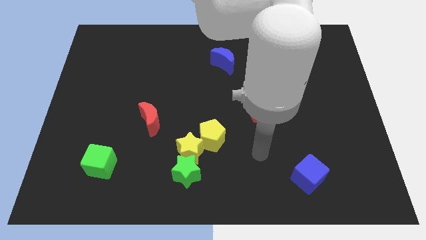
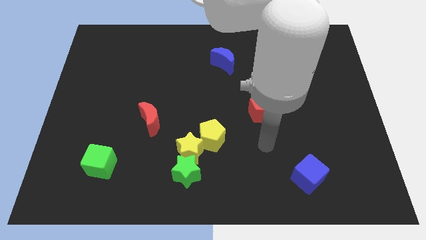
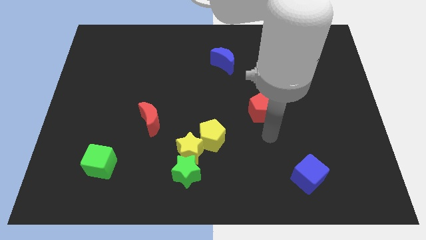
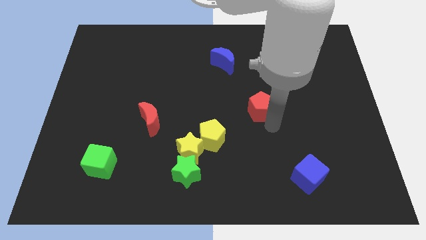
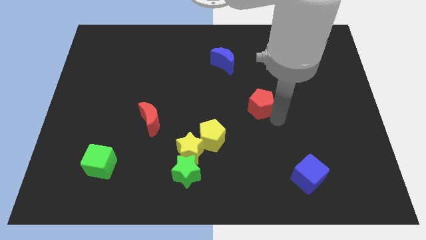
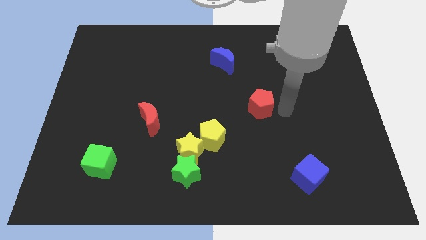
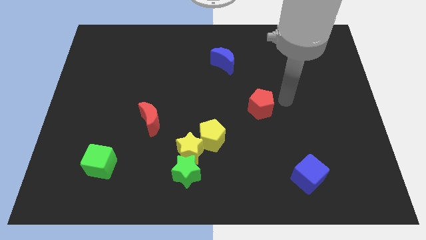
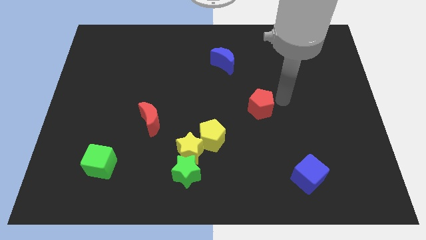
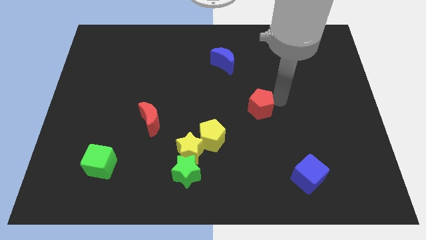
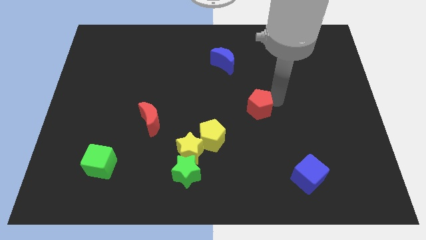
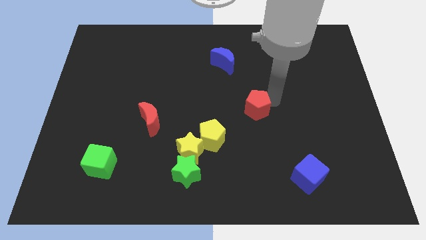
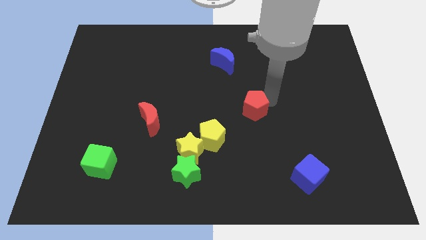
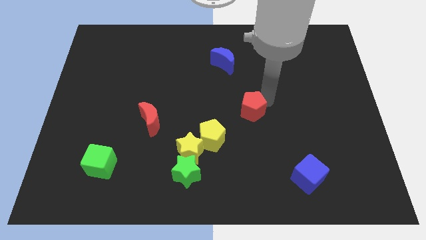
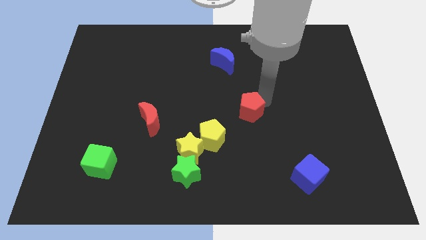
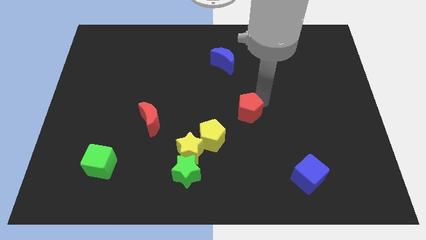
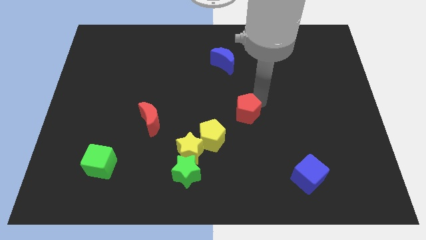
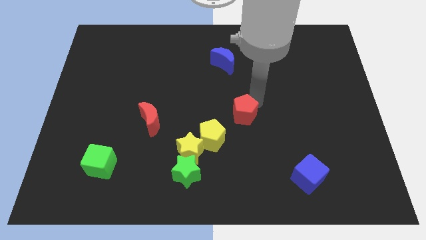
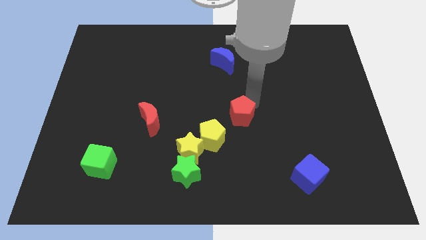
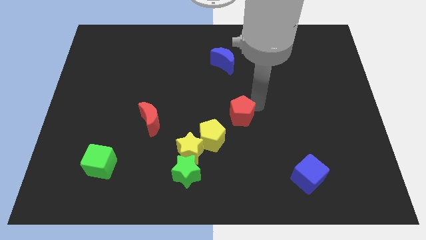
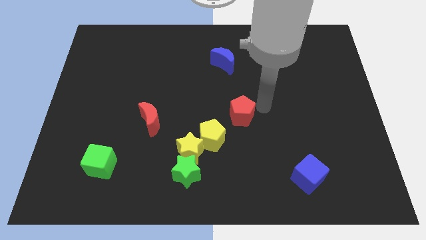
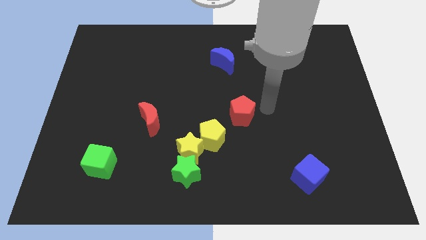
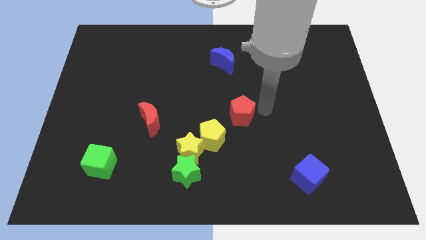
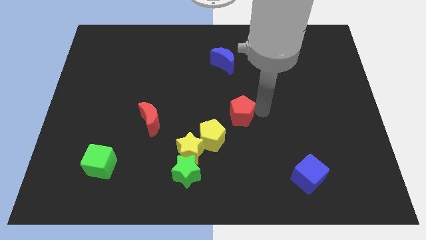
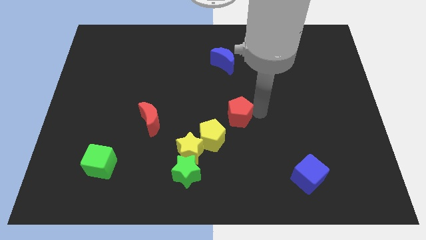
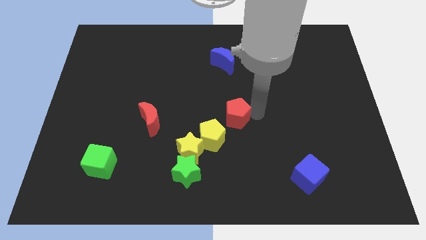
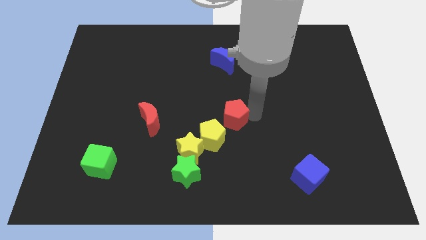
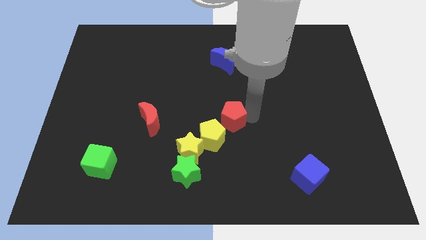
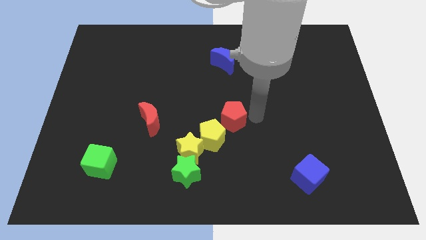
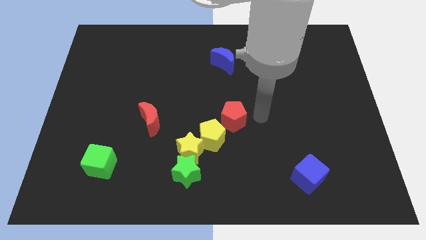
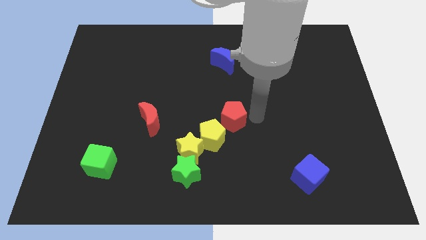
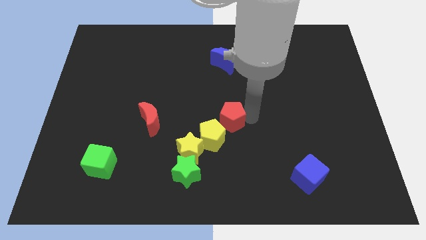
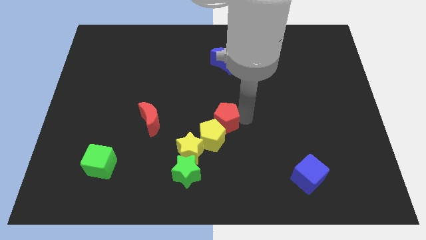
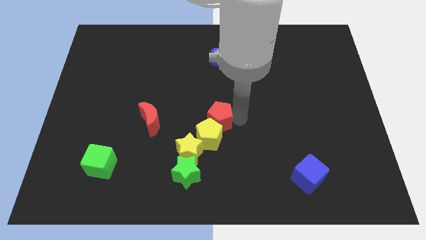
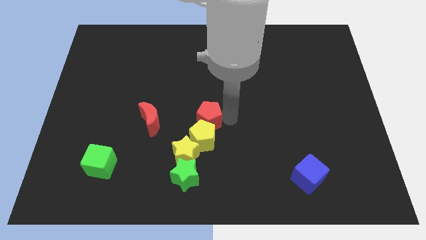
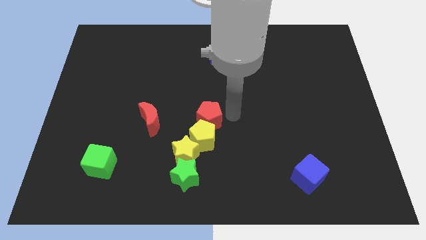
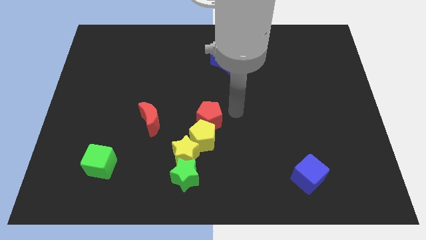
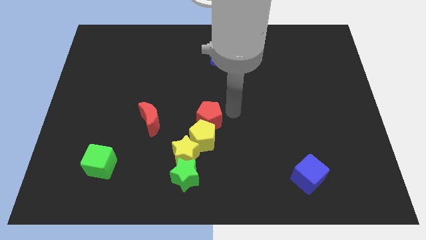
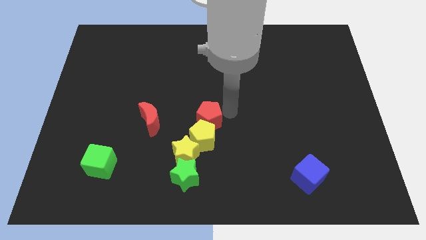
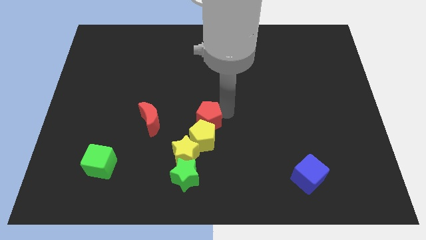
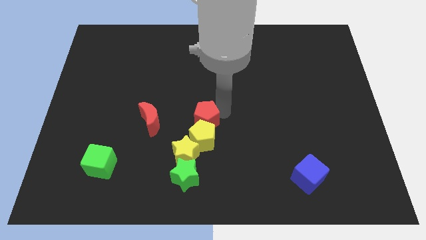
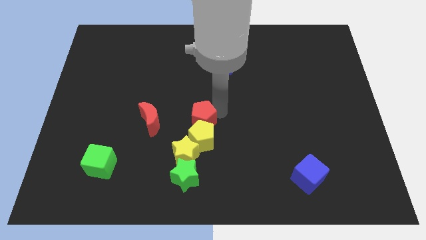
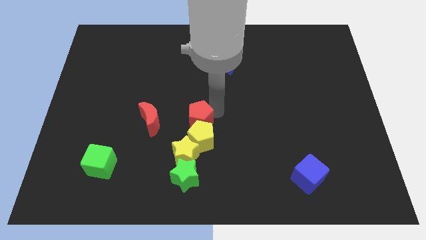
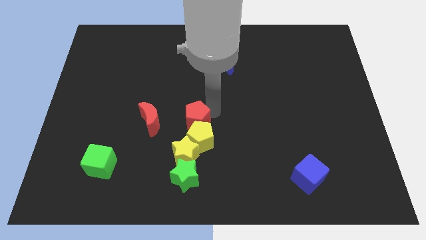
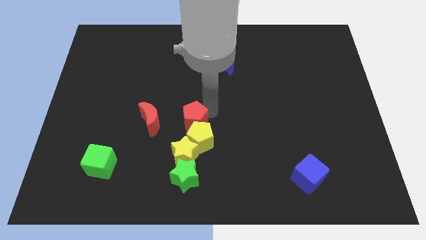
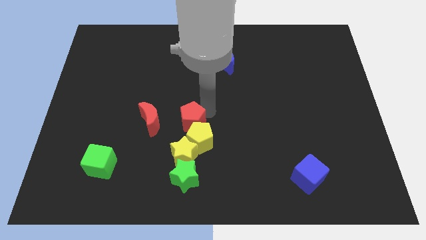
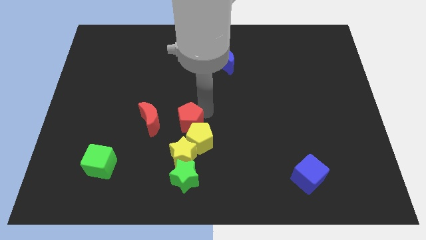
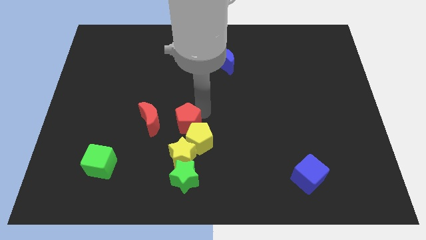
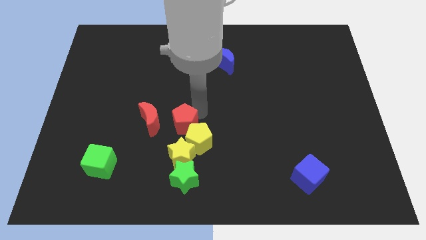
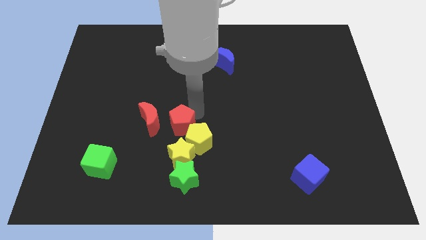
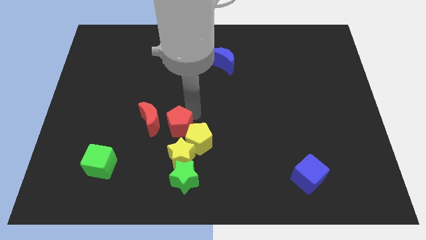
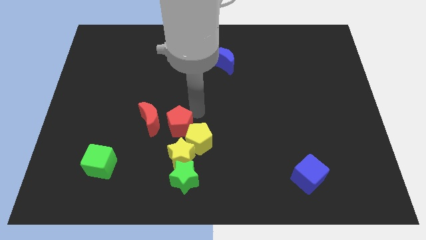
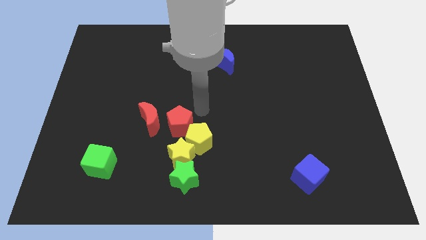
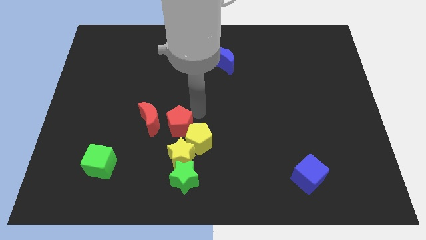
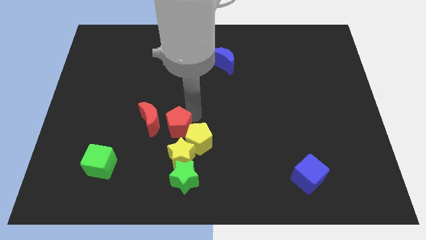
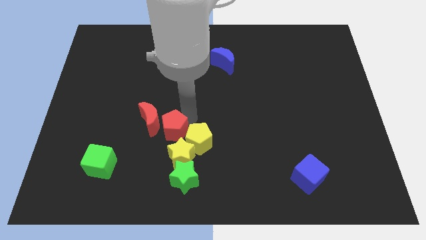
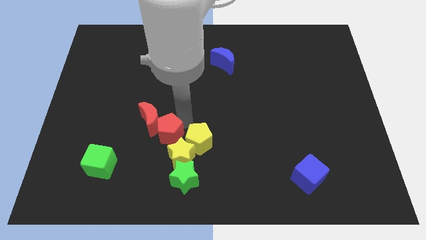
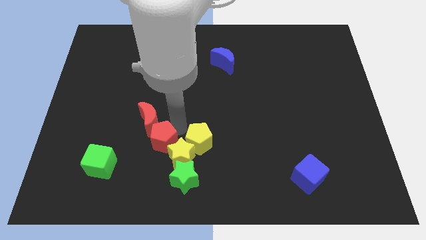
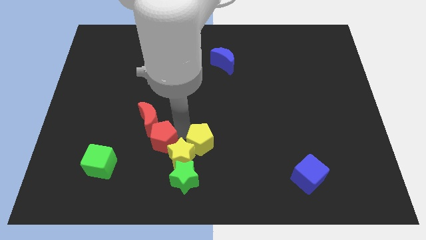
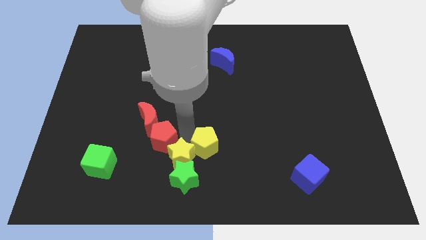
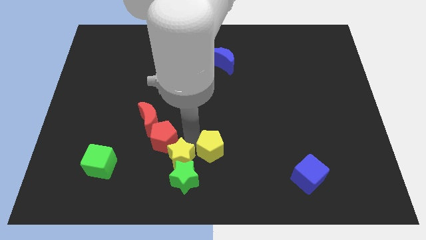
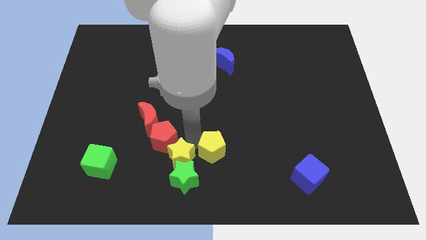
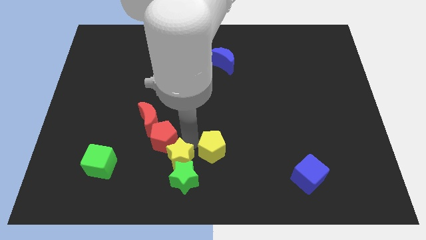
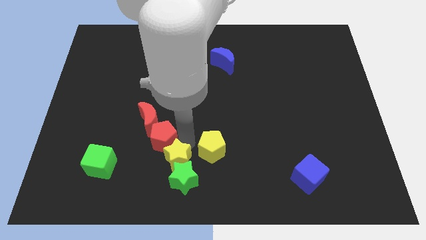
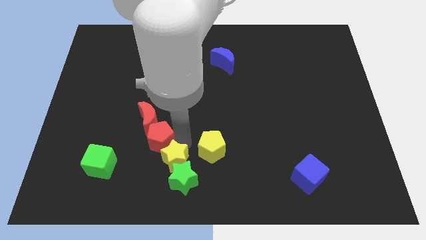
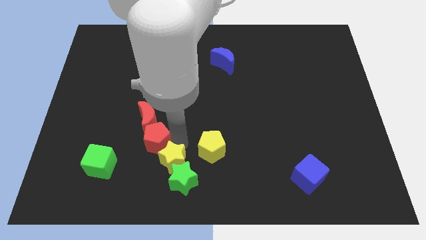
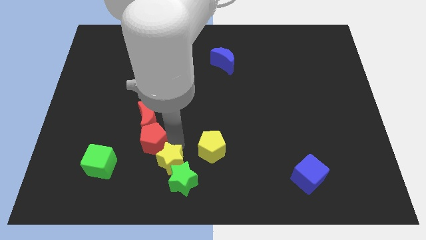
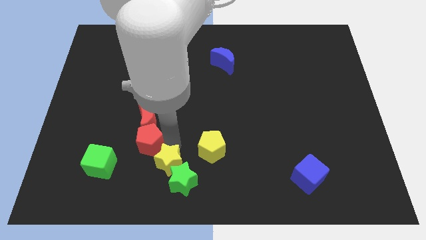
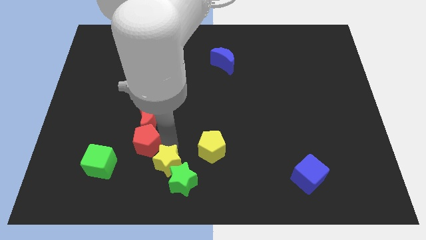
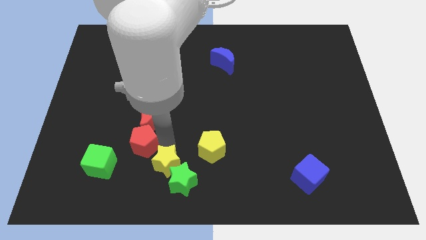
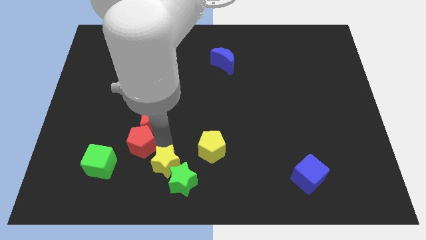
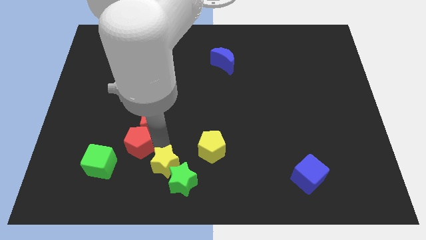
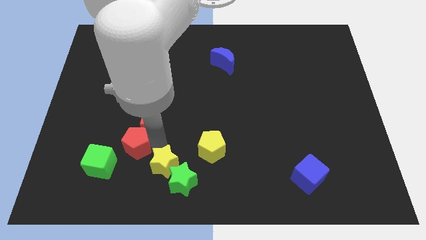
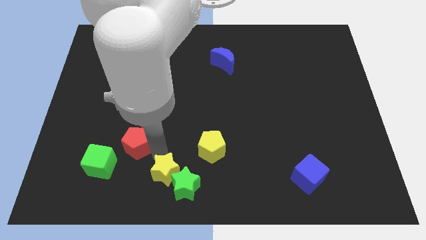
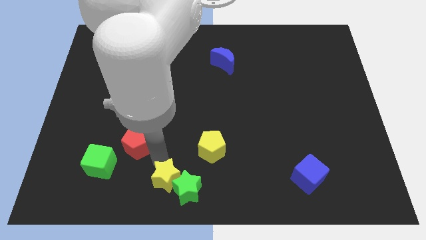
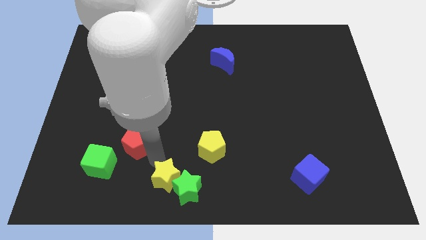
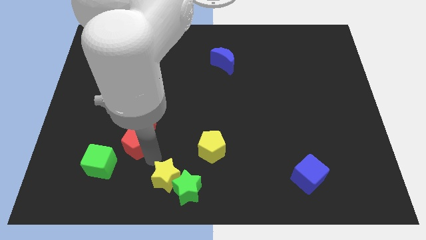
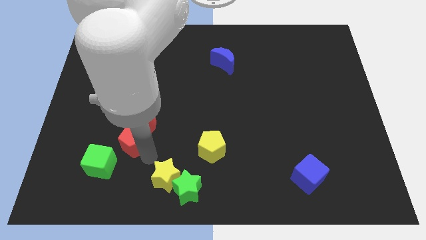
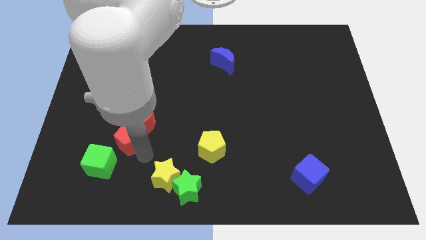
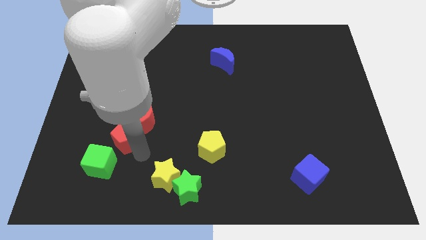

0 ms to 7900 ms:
put the red pentagon to the top side of the green cube
